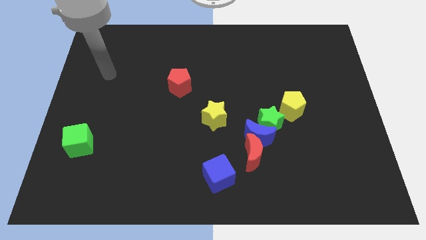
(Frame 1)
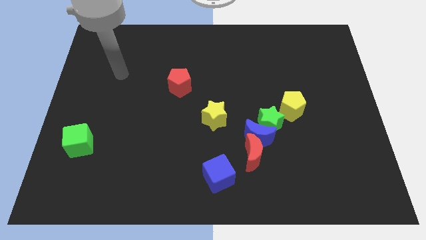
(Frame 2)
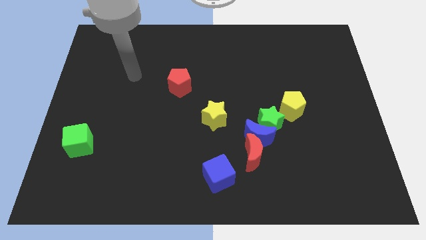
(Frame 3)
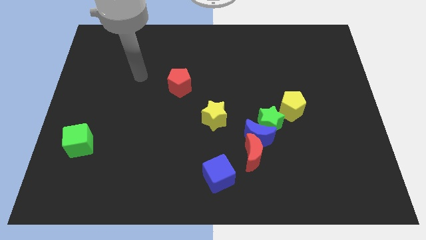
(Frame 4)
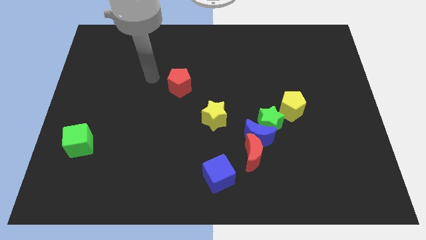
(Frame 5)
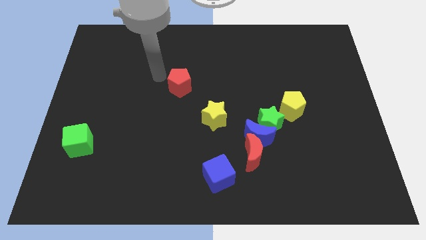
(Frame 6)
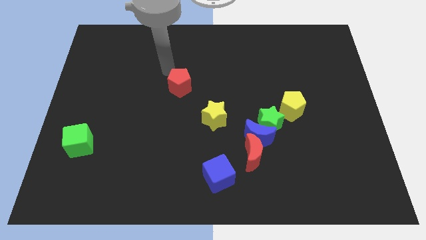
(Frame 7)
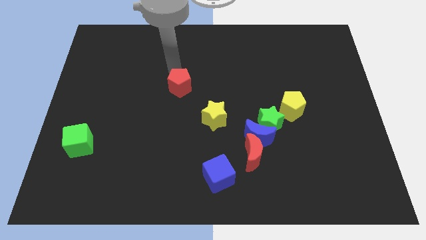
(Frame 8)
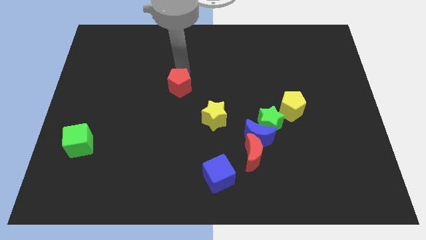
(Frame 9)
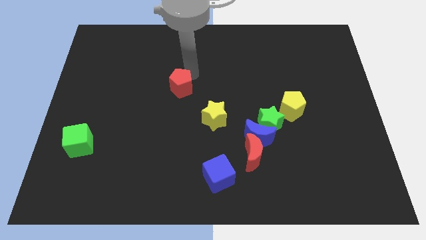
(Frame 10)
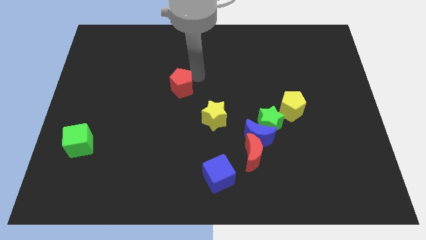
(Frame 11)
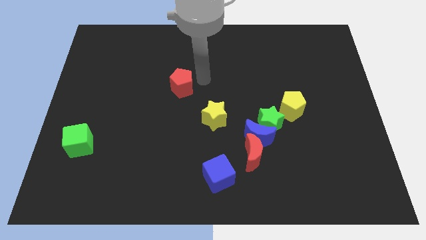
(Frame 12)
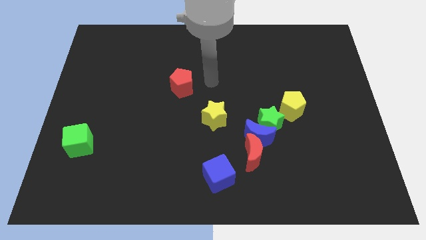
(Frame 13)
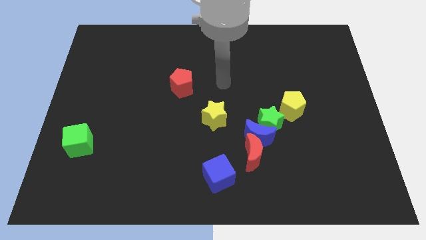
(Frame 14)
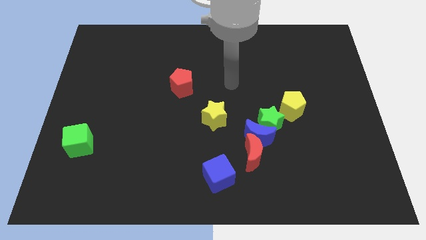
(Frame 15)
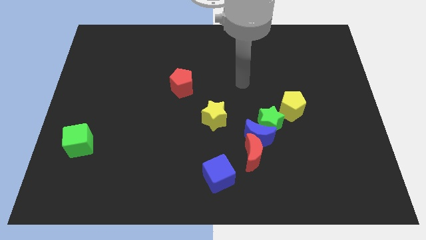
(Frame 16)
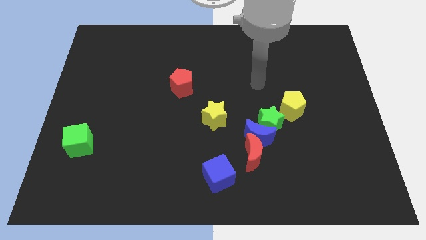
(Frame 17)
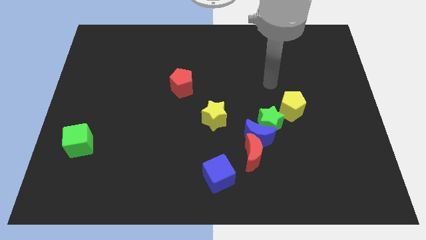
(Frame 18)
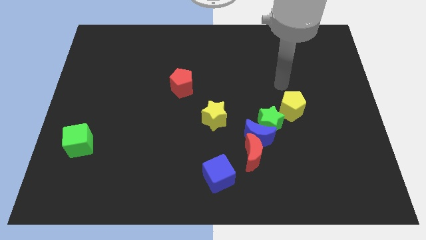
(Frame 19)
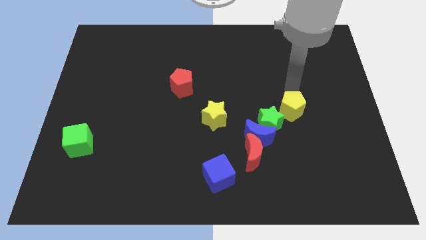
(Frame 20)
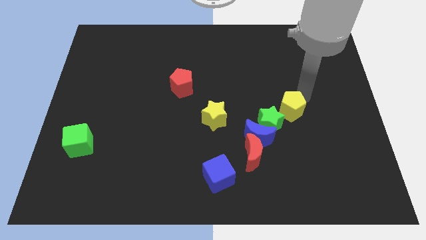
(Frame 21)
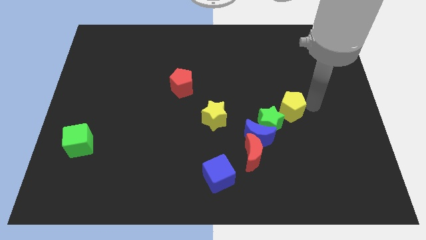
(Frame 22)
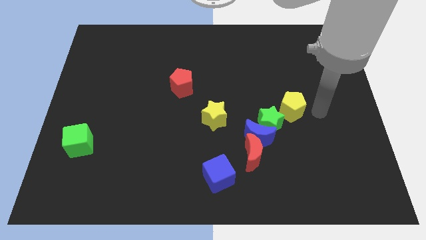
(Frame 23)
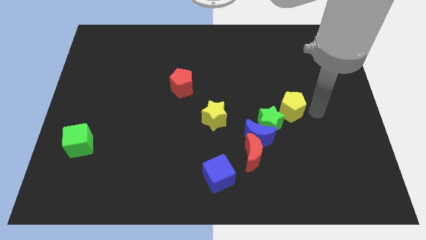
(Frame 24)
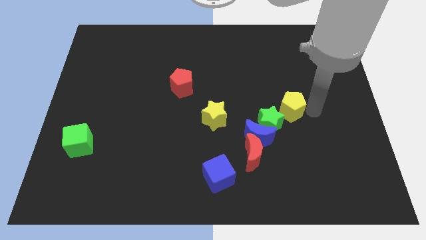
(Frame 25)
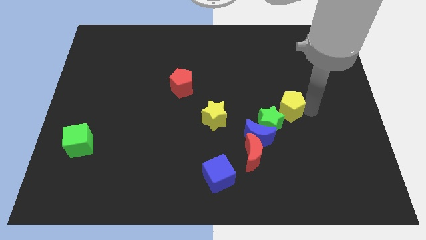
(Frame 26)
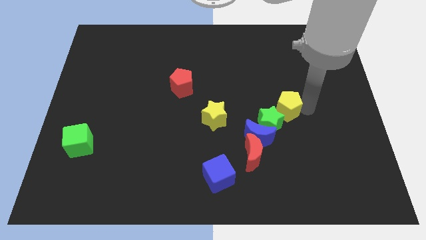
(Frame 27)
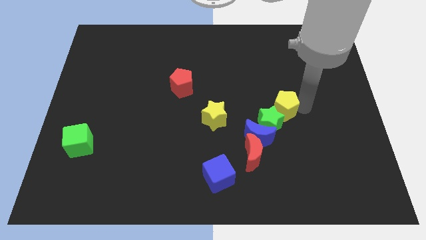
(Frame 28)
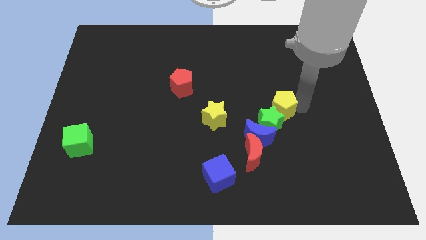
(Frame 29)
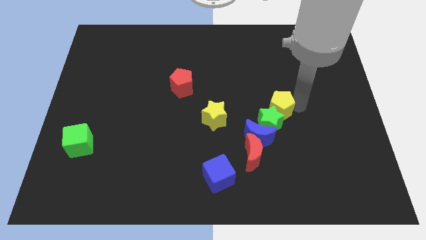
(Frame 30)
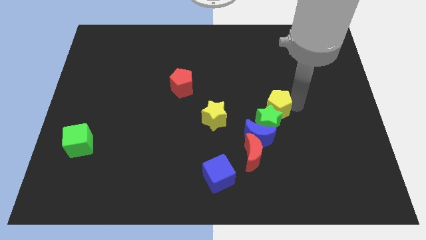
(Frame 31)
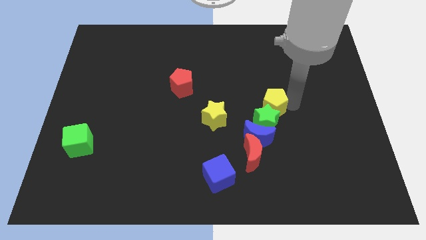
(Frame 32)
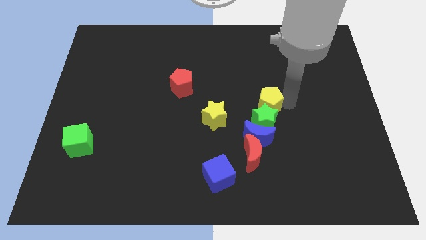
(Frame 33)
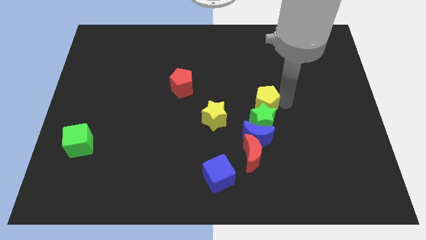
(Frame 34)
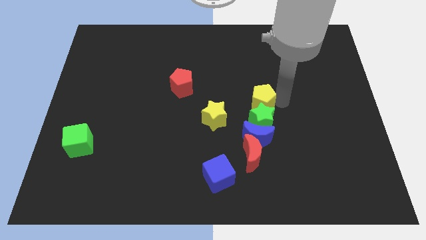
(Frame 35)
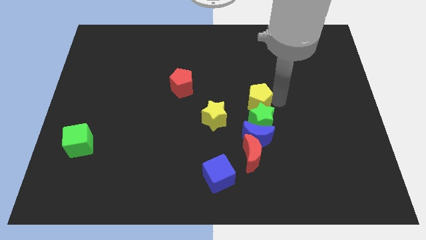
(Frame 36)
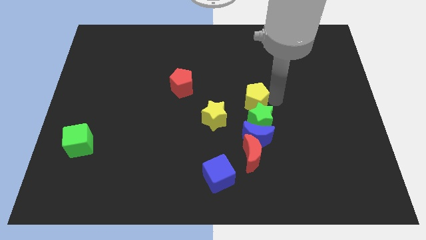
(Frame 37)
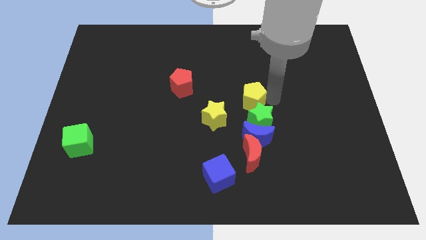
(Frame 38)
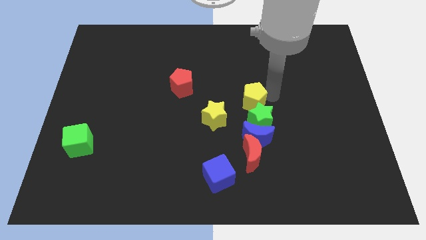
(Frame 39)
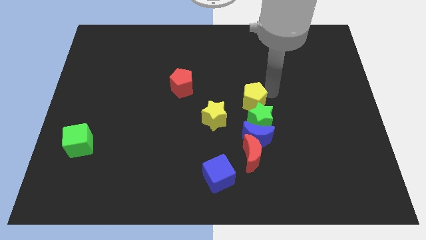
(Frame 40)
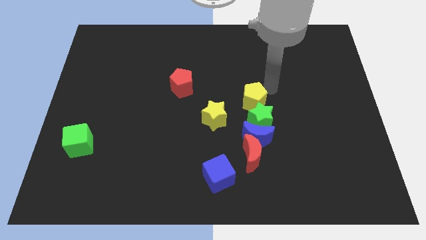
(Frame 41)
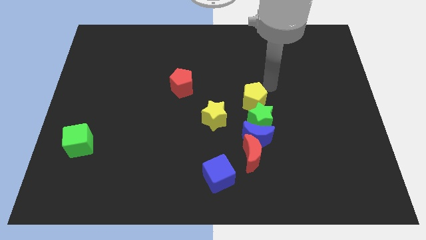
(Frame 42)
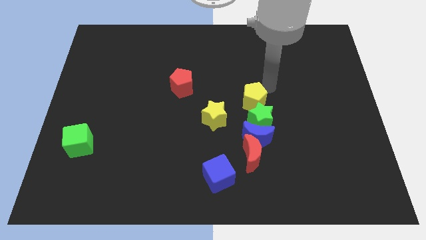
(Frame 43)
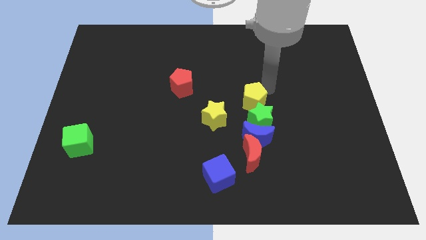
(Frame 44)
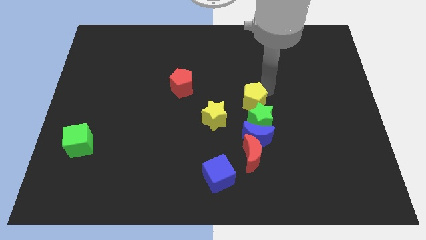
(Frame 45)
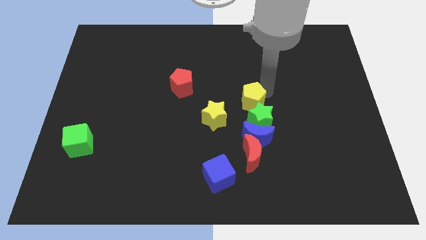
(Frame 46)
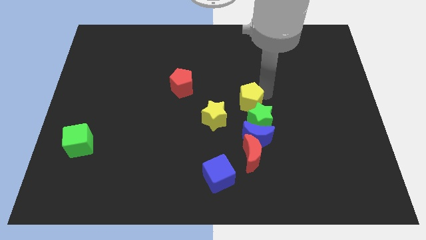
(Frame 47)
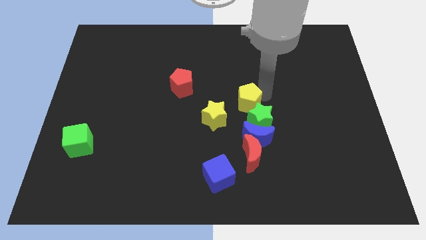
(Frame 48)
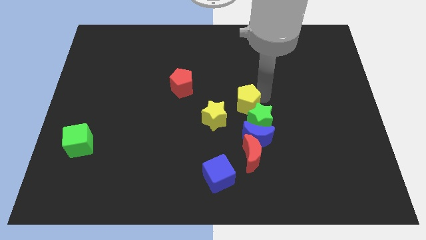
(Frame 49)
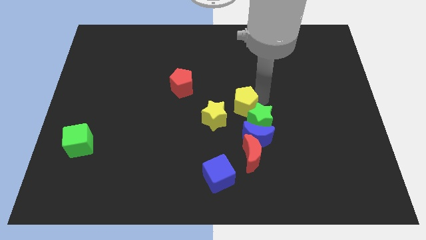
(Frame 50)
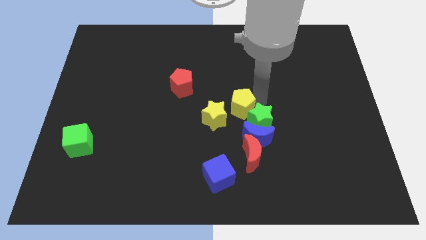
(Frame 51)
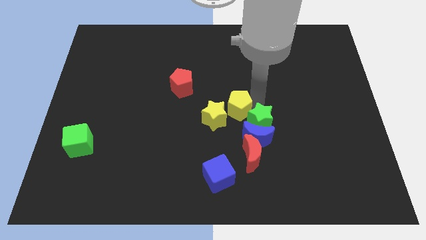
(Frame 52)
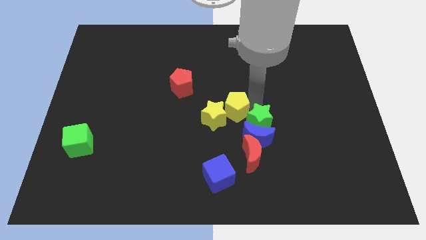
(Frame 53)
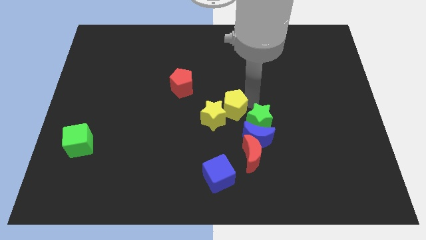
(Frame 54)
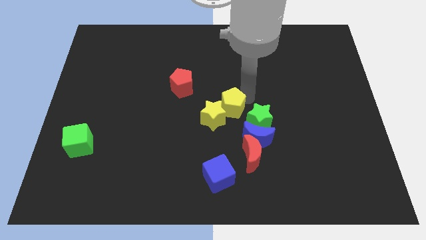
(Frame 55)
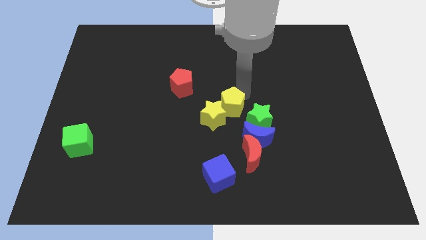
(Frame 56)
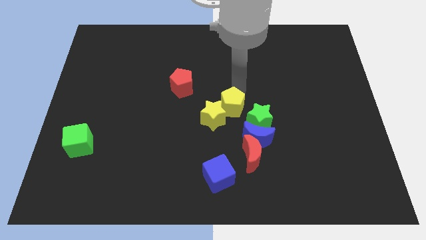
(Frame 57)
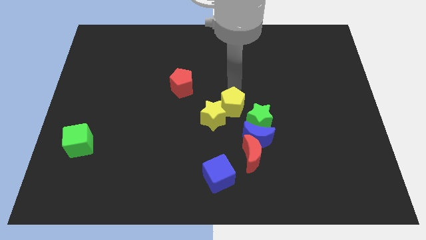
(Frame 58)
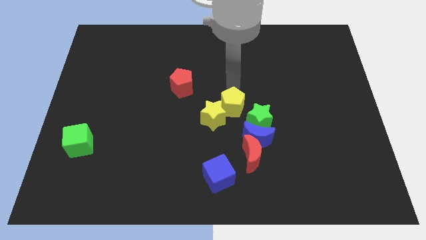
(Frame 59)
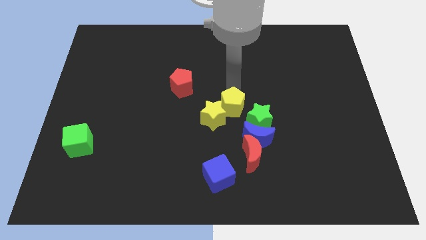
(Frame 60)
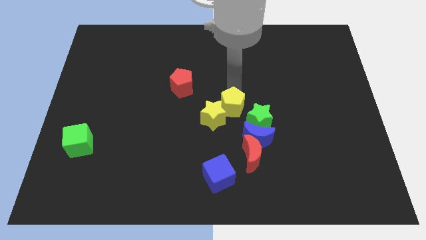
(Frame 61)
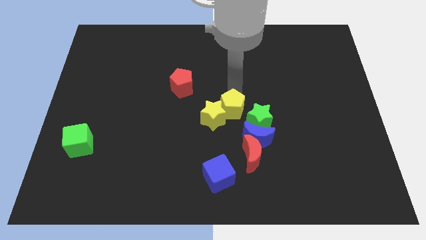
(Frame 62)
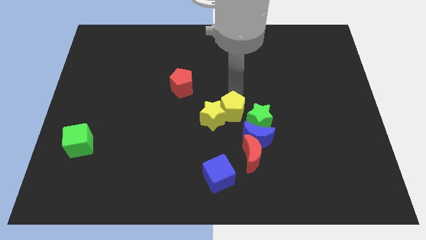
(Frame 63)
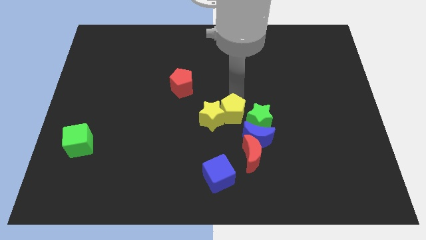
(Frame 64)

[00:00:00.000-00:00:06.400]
push the yellow pentagon down and then left a little bit

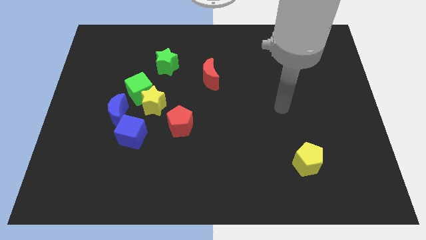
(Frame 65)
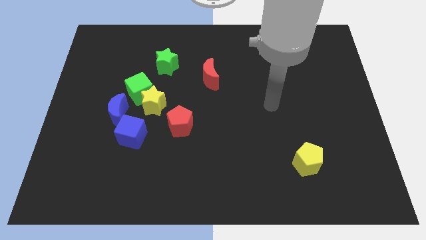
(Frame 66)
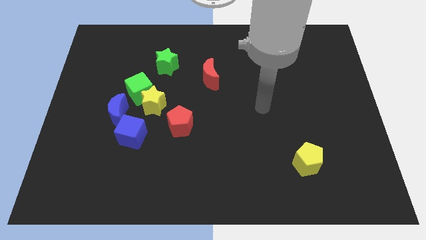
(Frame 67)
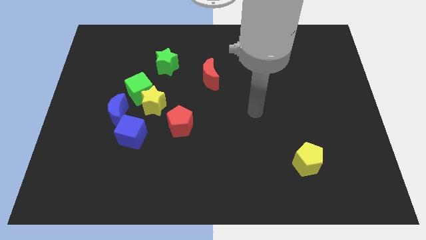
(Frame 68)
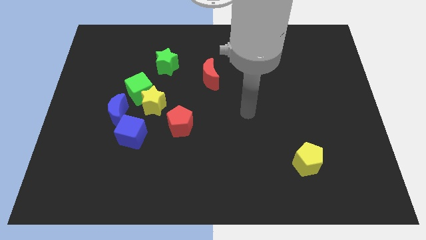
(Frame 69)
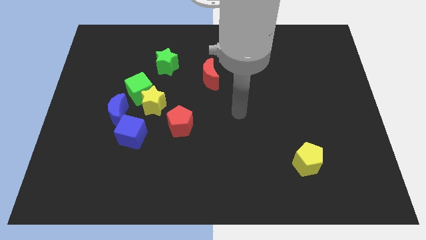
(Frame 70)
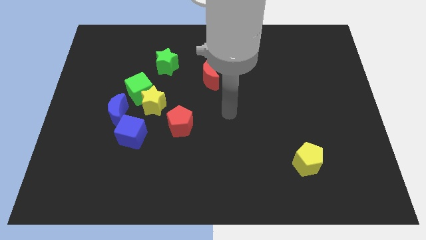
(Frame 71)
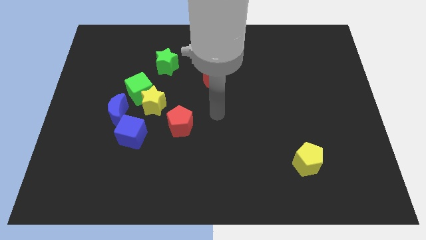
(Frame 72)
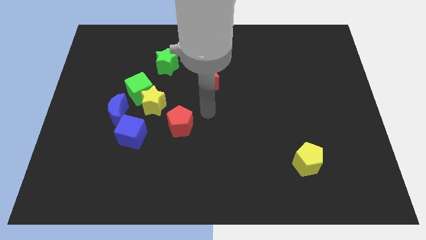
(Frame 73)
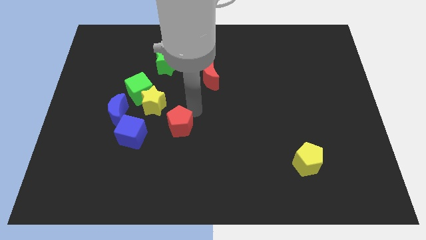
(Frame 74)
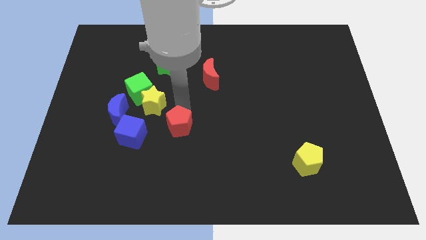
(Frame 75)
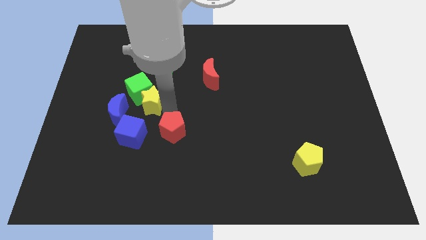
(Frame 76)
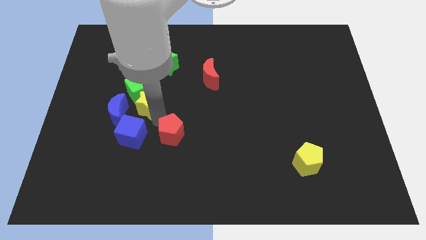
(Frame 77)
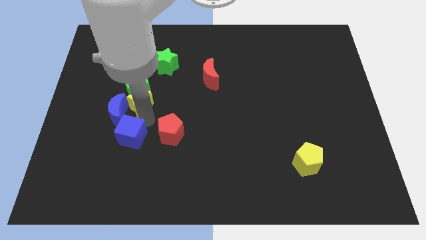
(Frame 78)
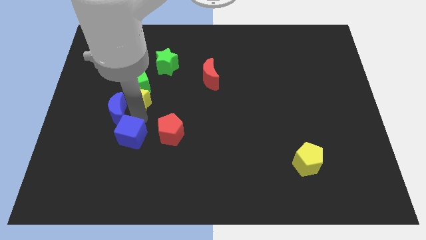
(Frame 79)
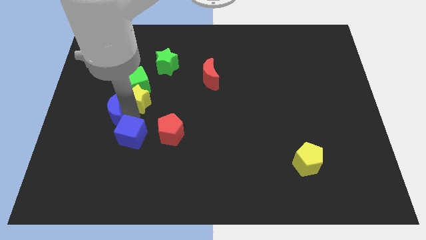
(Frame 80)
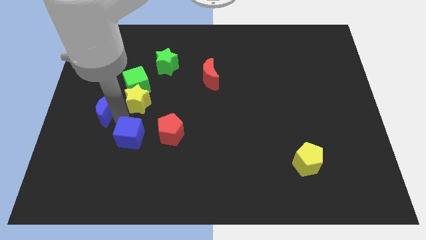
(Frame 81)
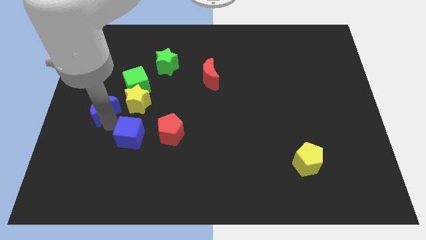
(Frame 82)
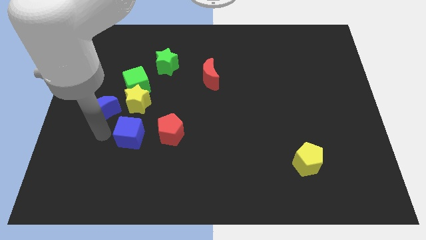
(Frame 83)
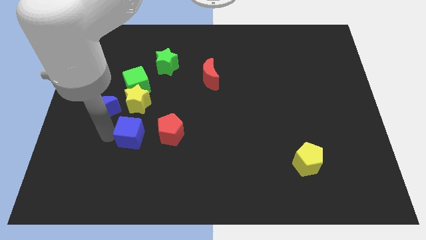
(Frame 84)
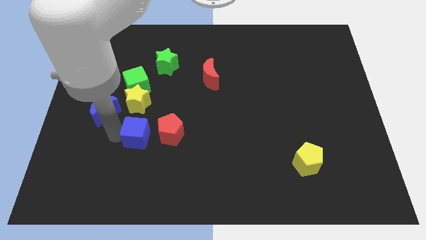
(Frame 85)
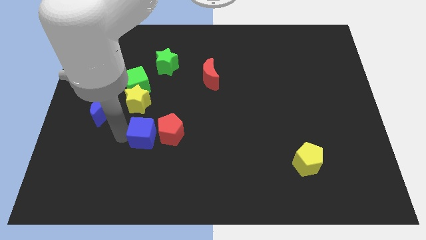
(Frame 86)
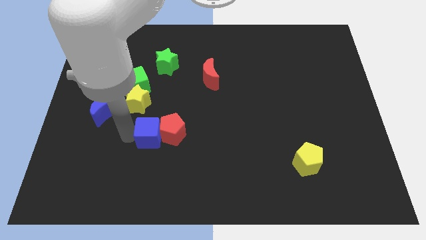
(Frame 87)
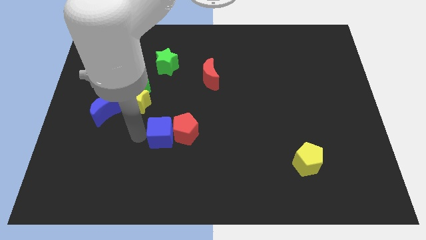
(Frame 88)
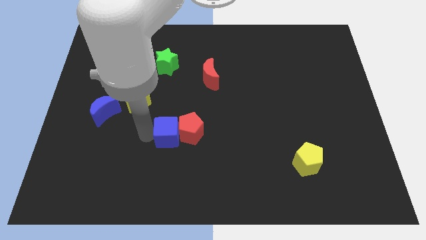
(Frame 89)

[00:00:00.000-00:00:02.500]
slide the blue cube slightly to the right
